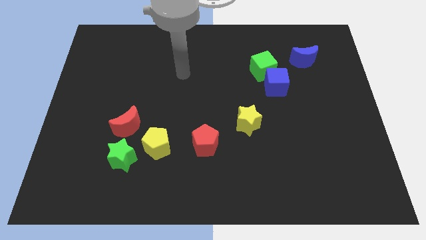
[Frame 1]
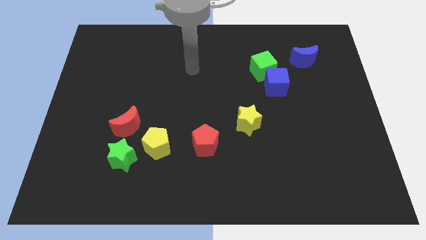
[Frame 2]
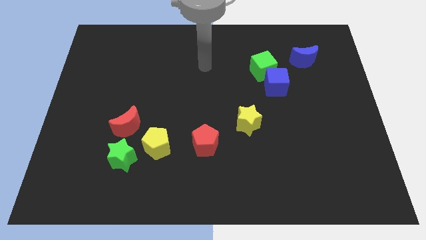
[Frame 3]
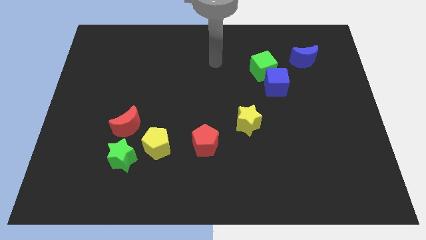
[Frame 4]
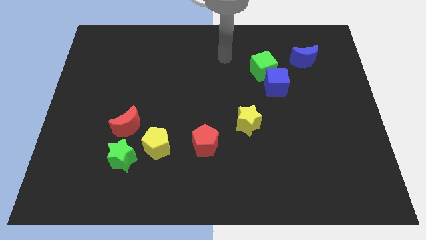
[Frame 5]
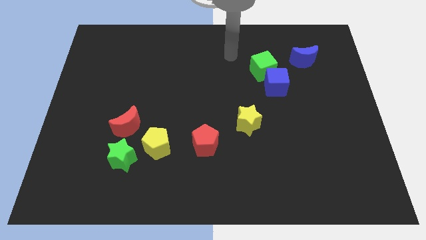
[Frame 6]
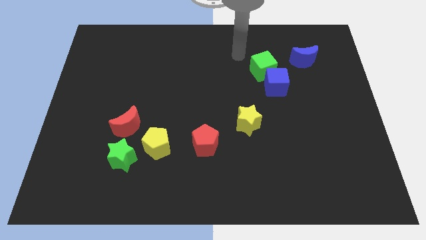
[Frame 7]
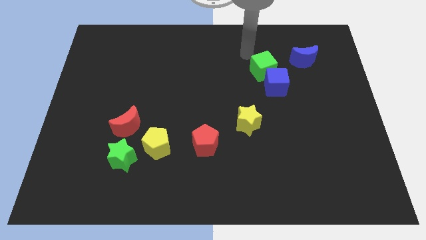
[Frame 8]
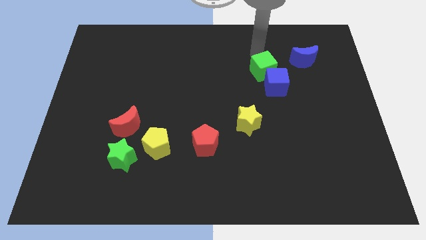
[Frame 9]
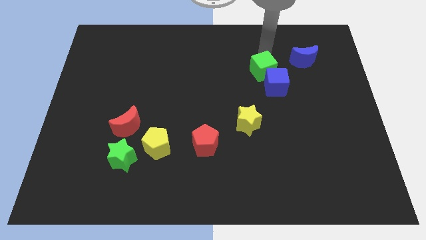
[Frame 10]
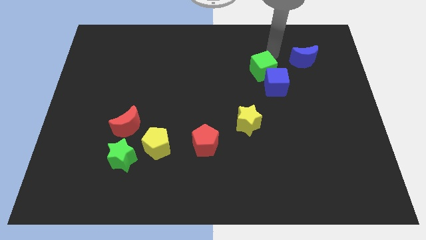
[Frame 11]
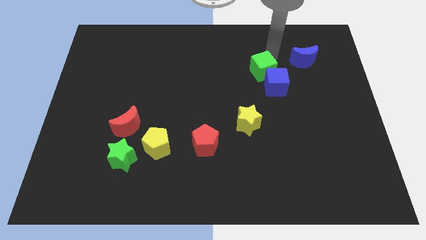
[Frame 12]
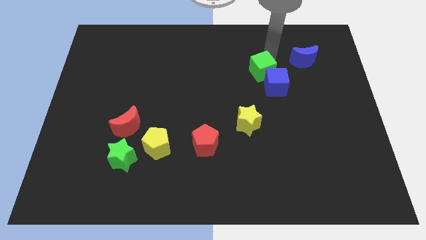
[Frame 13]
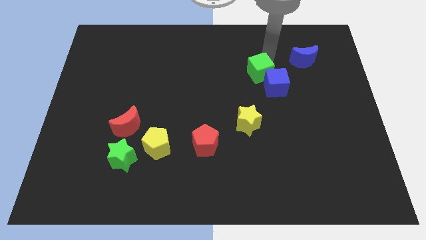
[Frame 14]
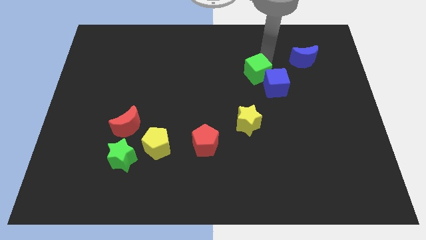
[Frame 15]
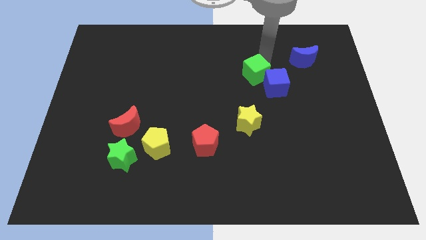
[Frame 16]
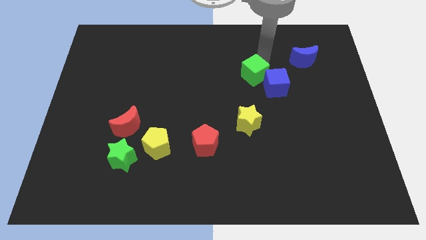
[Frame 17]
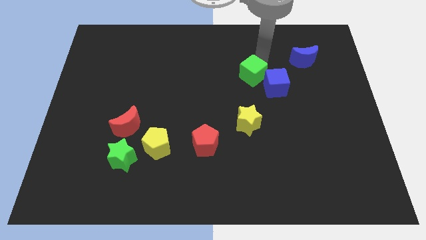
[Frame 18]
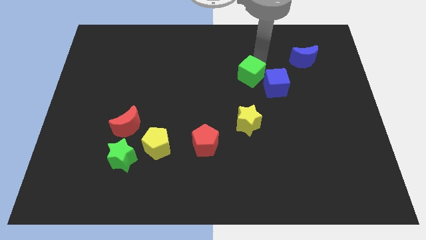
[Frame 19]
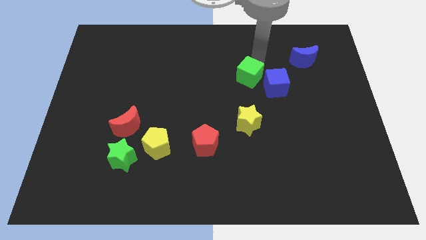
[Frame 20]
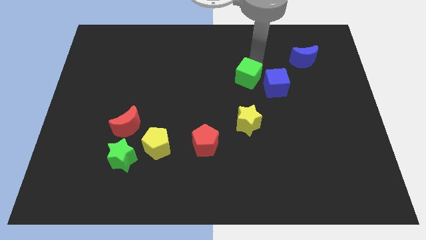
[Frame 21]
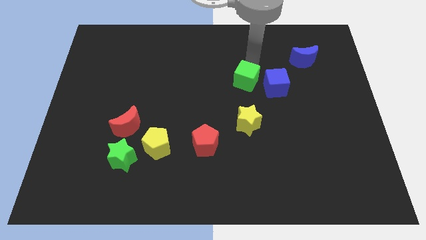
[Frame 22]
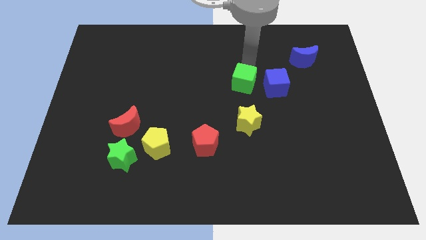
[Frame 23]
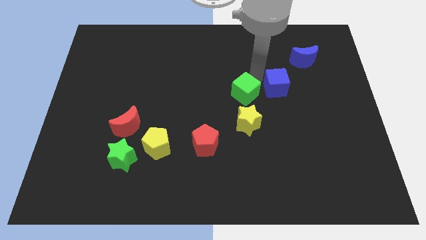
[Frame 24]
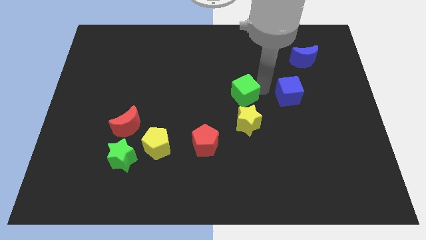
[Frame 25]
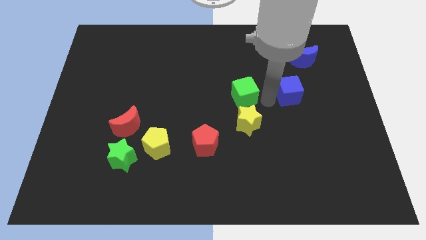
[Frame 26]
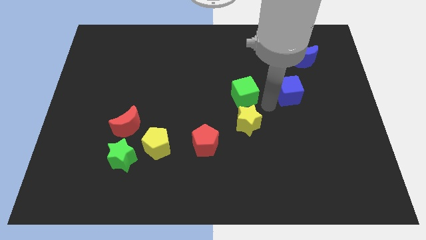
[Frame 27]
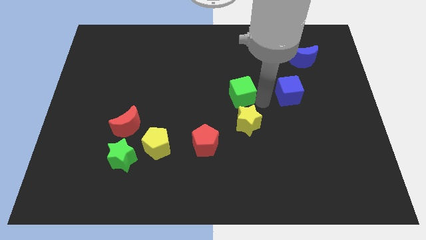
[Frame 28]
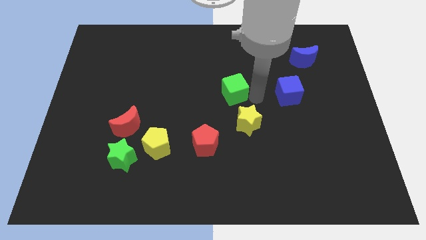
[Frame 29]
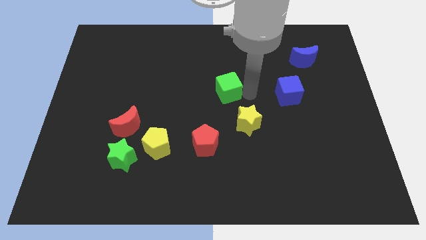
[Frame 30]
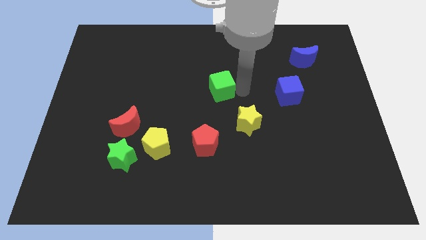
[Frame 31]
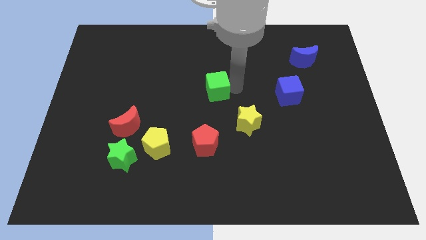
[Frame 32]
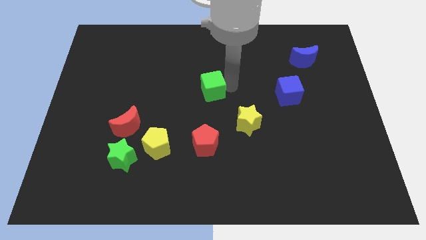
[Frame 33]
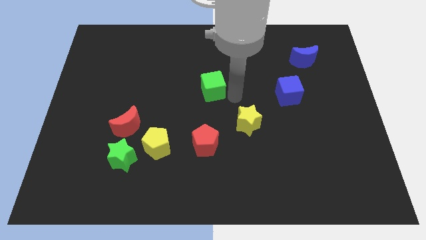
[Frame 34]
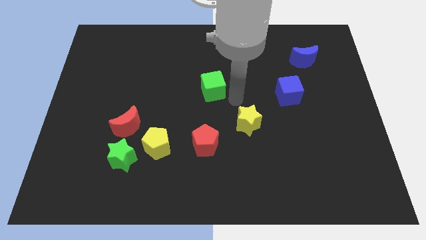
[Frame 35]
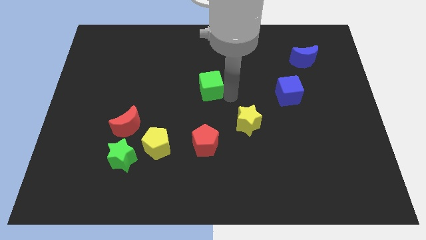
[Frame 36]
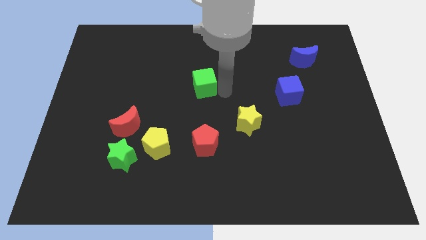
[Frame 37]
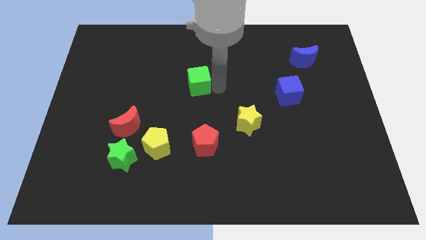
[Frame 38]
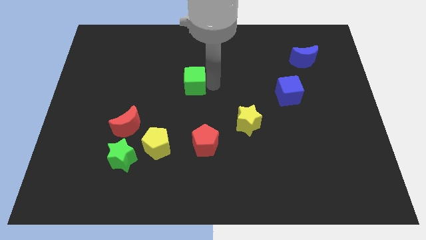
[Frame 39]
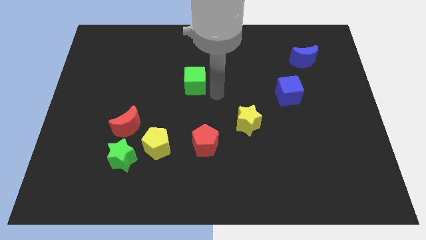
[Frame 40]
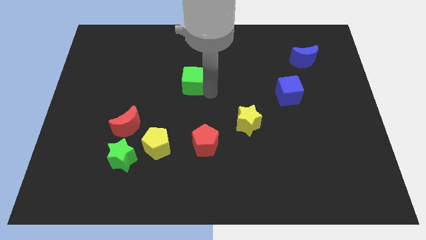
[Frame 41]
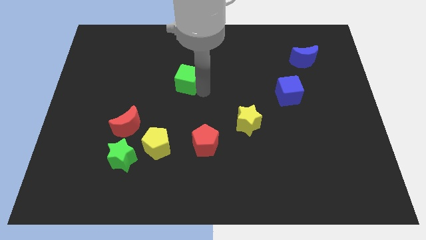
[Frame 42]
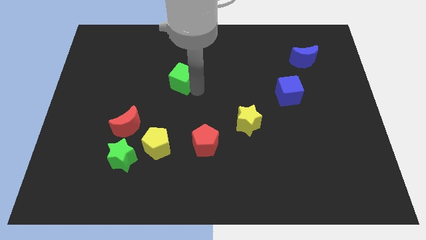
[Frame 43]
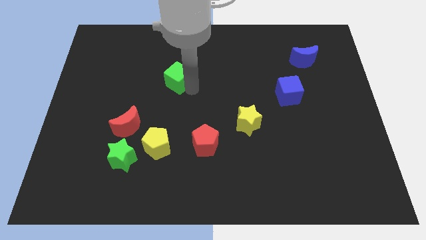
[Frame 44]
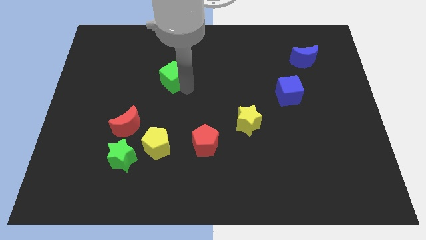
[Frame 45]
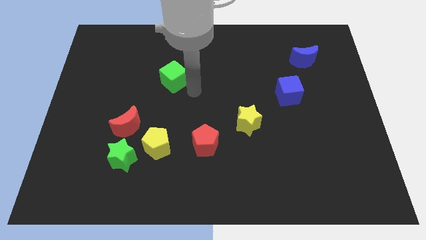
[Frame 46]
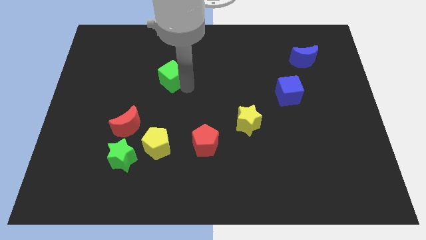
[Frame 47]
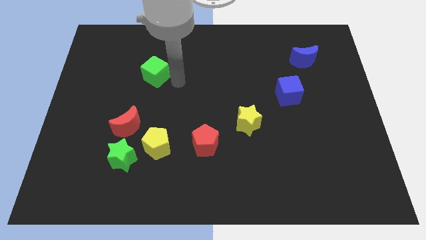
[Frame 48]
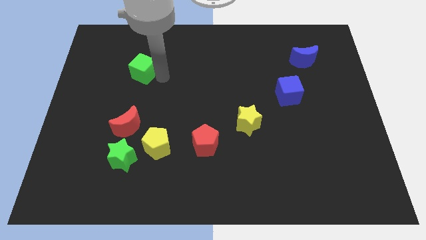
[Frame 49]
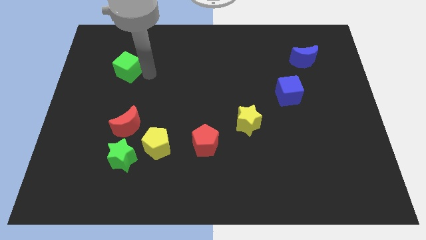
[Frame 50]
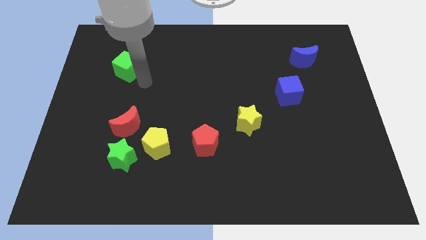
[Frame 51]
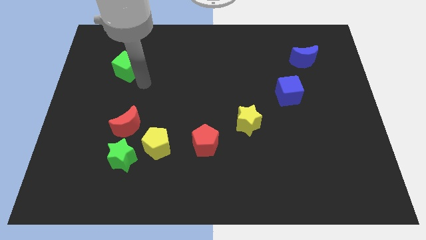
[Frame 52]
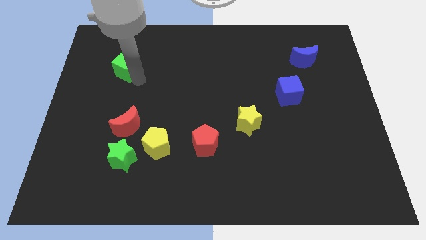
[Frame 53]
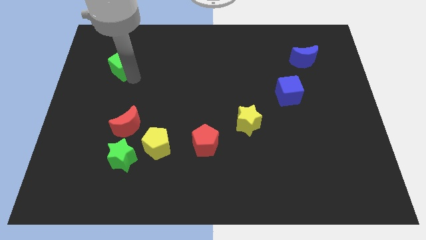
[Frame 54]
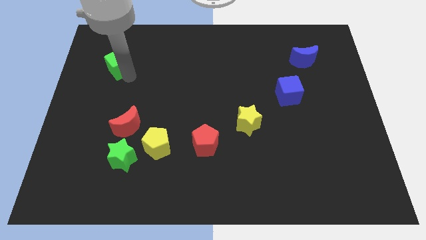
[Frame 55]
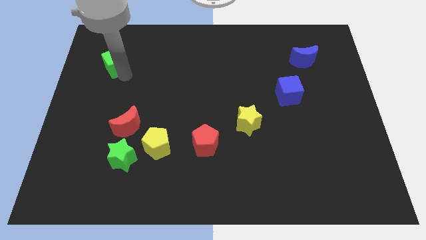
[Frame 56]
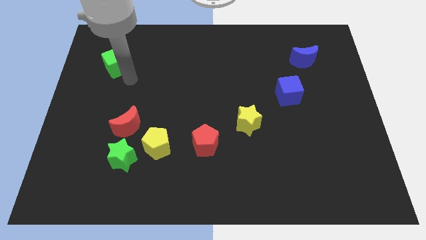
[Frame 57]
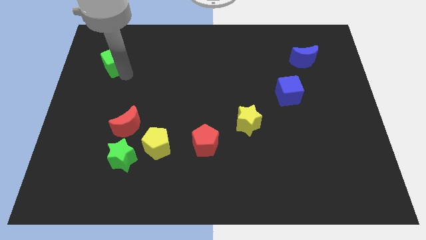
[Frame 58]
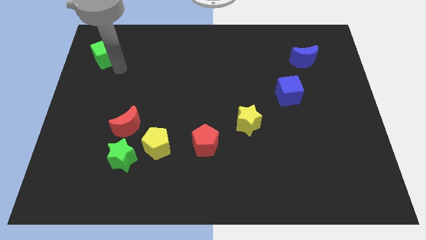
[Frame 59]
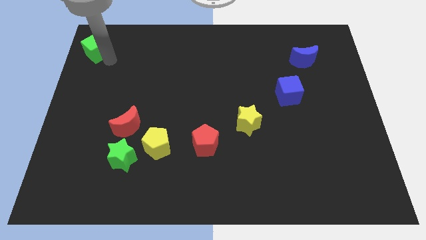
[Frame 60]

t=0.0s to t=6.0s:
push the green cube to the top left
